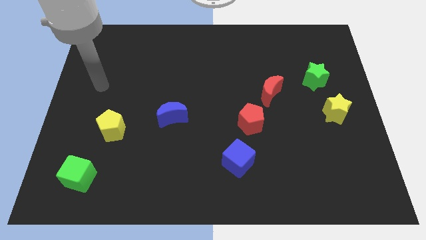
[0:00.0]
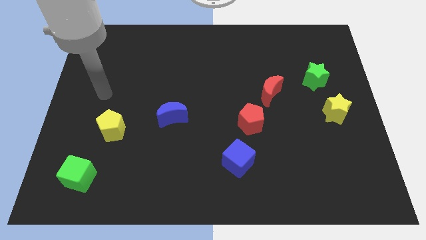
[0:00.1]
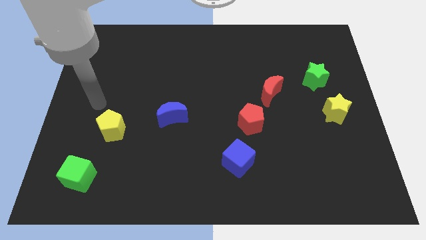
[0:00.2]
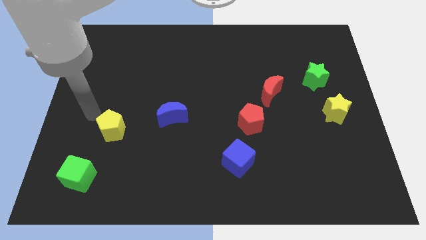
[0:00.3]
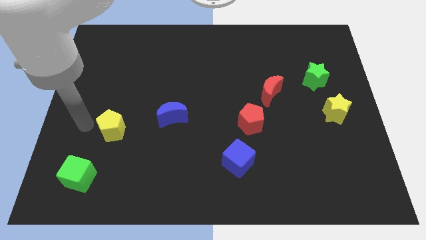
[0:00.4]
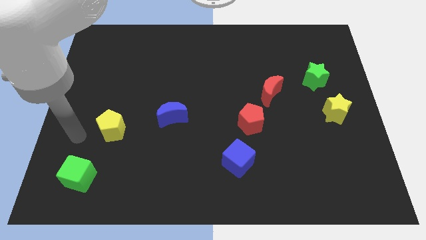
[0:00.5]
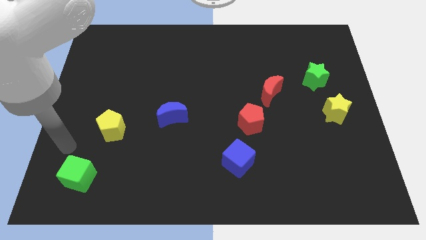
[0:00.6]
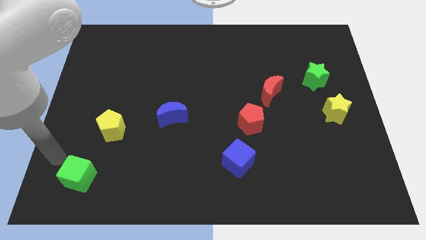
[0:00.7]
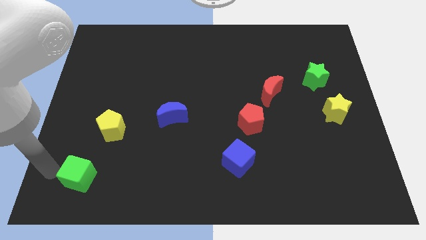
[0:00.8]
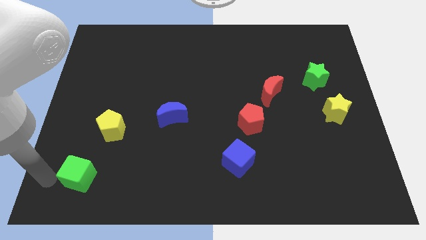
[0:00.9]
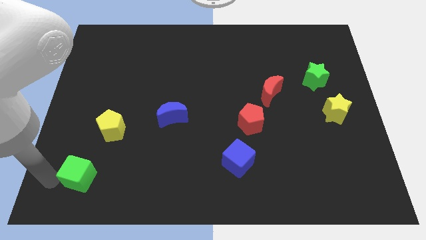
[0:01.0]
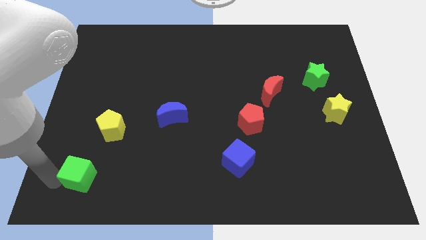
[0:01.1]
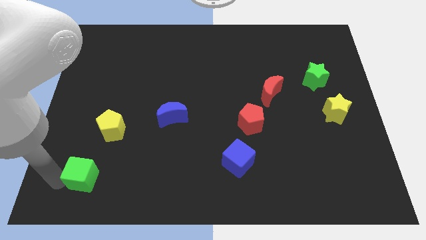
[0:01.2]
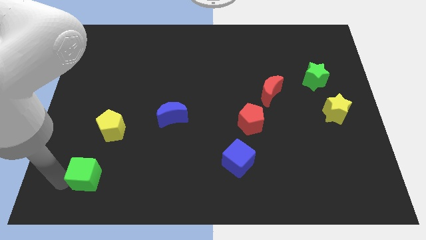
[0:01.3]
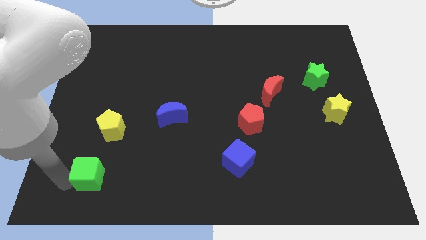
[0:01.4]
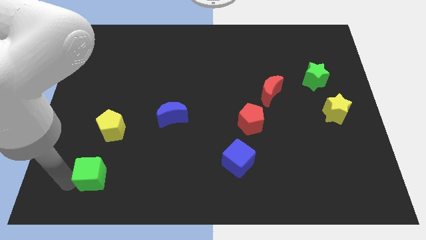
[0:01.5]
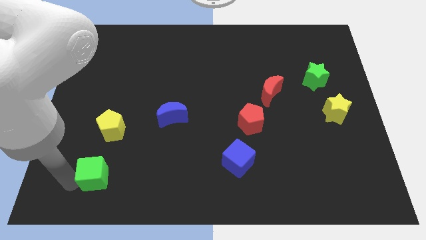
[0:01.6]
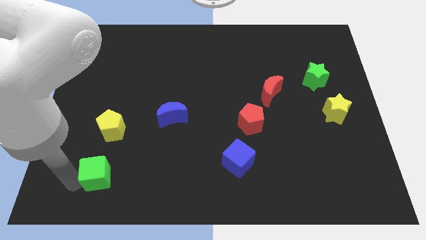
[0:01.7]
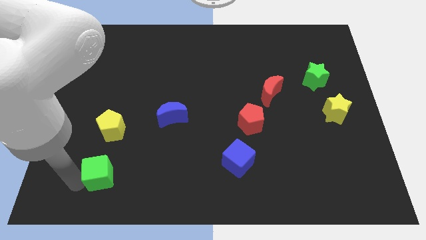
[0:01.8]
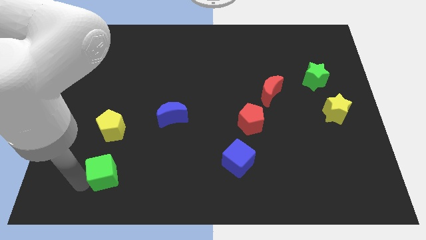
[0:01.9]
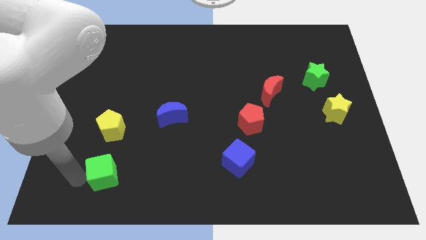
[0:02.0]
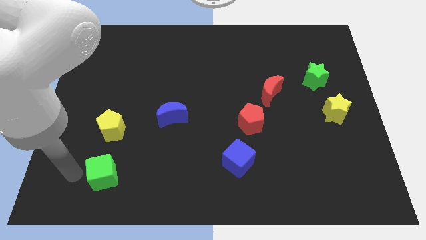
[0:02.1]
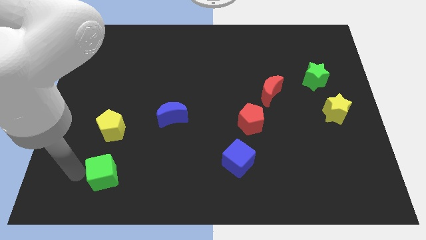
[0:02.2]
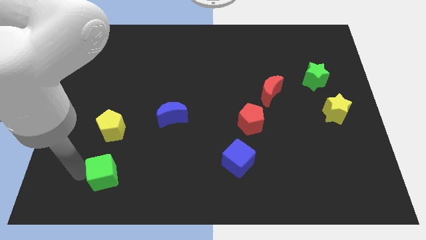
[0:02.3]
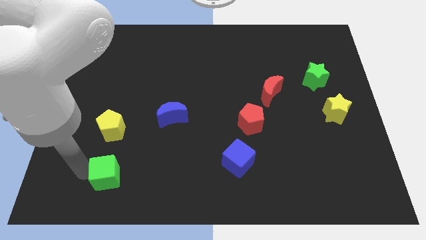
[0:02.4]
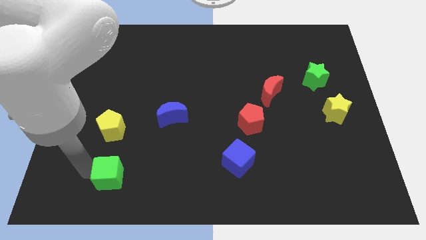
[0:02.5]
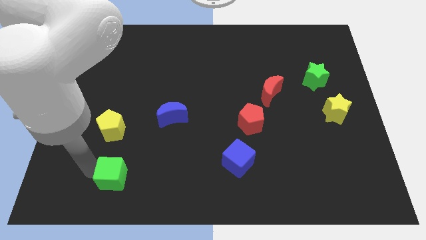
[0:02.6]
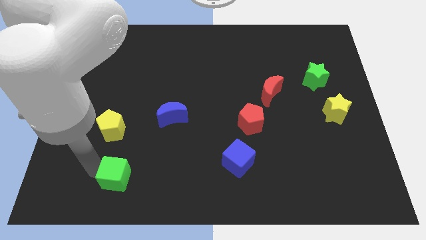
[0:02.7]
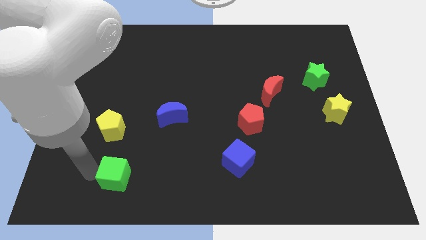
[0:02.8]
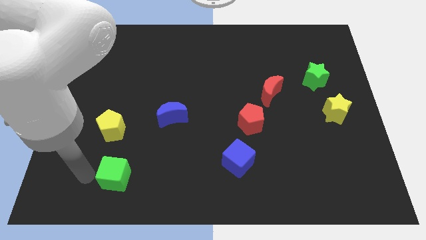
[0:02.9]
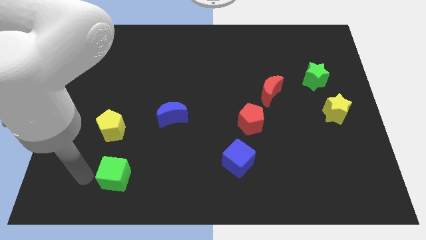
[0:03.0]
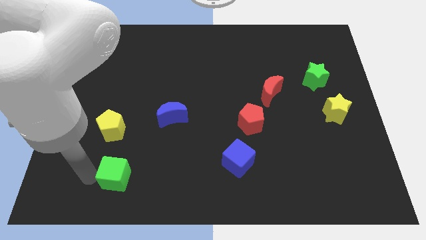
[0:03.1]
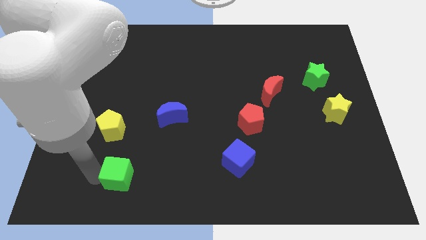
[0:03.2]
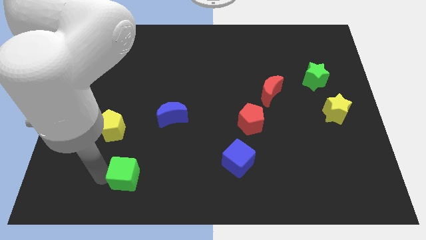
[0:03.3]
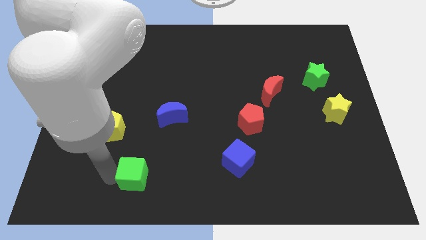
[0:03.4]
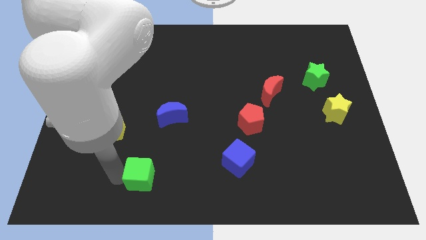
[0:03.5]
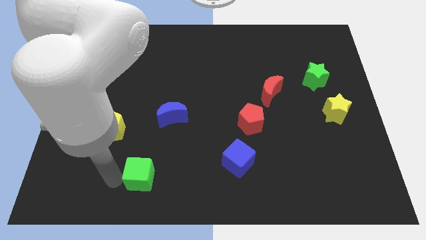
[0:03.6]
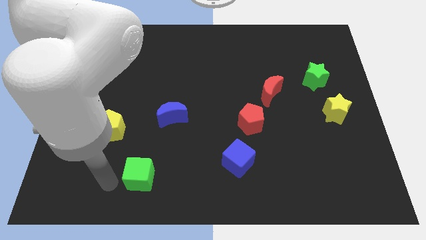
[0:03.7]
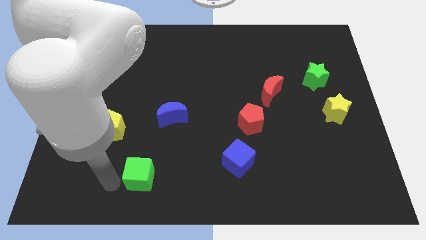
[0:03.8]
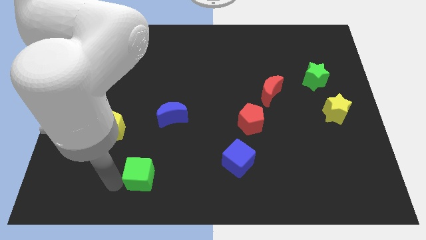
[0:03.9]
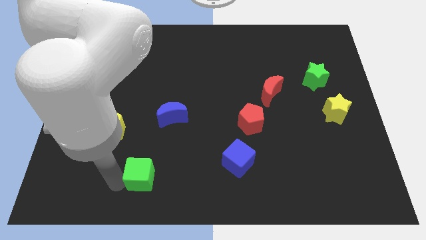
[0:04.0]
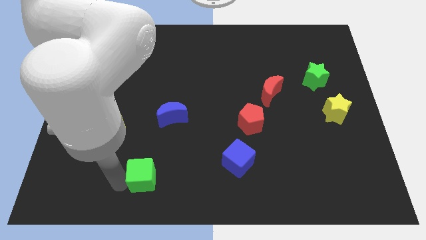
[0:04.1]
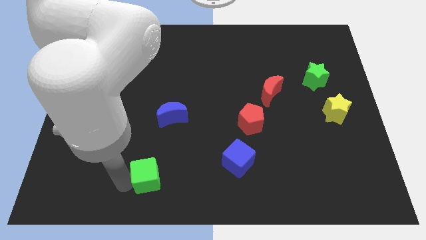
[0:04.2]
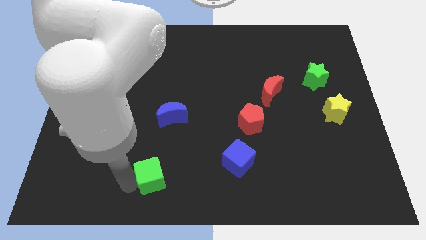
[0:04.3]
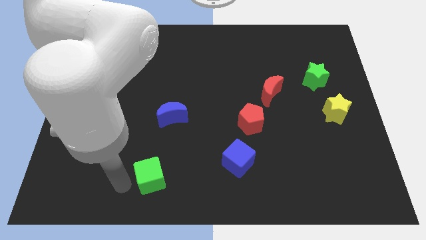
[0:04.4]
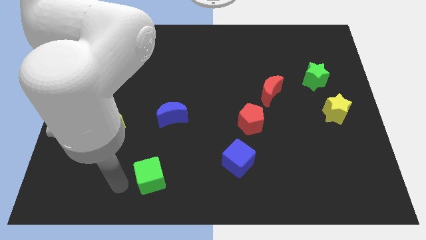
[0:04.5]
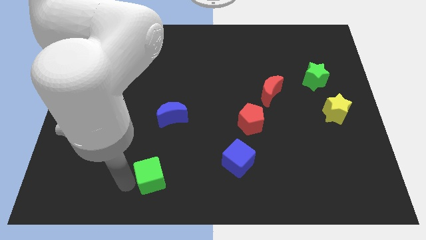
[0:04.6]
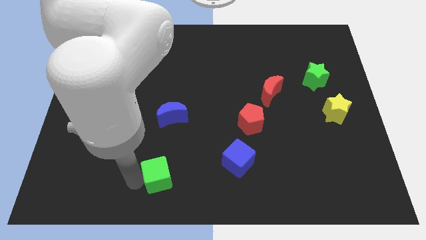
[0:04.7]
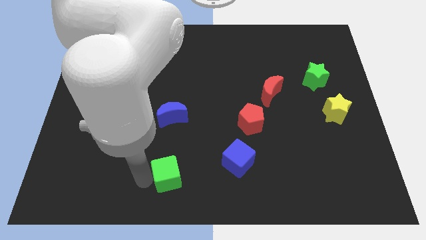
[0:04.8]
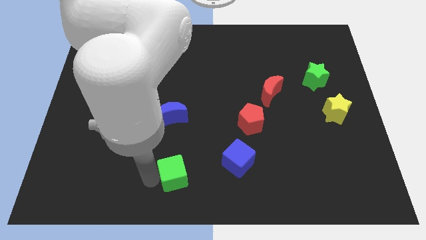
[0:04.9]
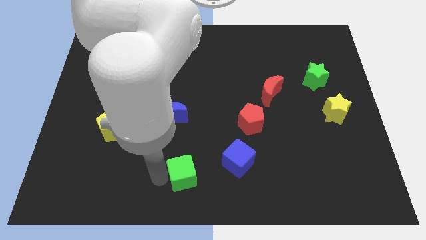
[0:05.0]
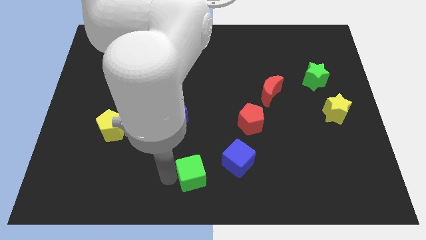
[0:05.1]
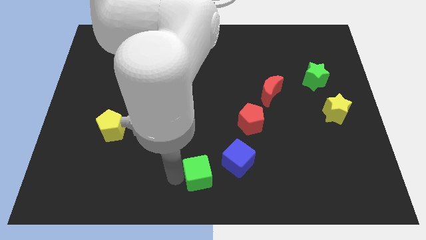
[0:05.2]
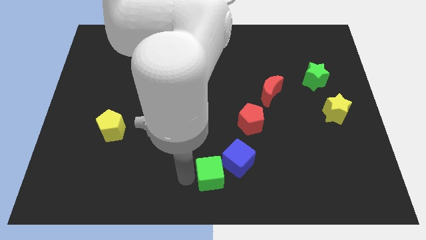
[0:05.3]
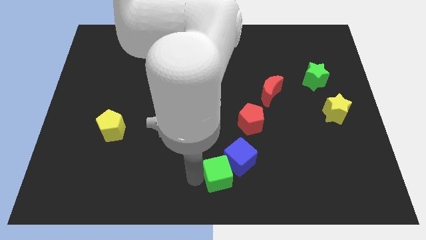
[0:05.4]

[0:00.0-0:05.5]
put the green cube close to the blue cube

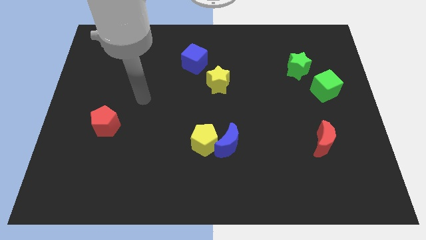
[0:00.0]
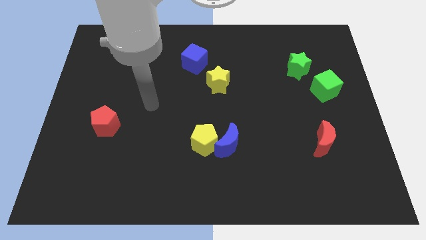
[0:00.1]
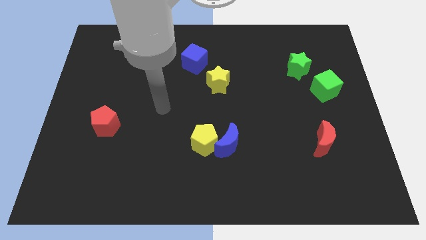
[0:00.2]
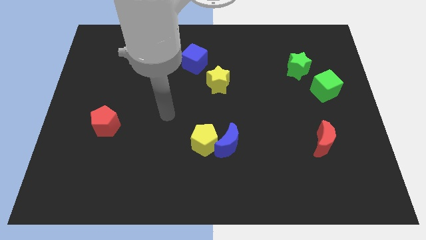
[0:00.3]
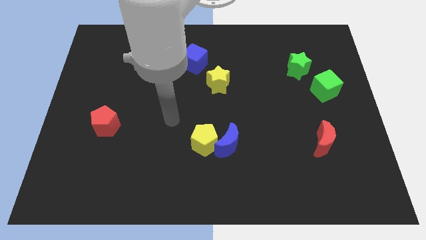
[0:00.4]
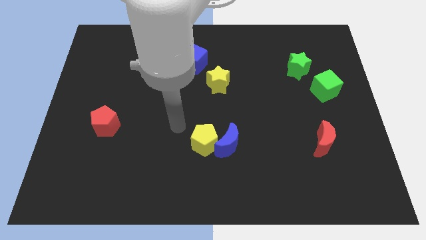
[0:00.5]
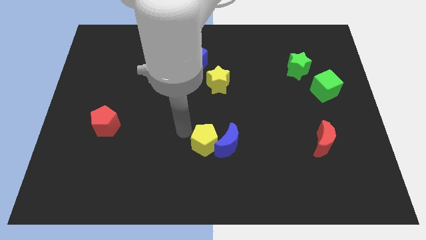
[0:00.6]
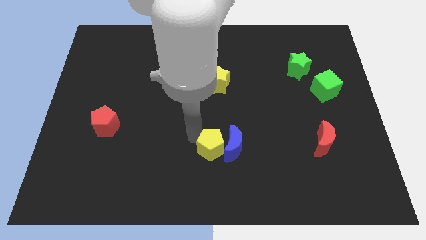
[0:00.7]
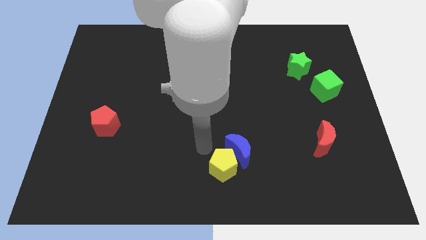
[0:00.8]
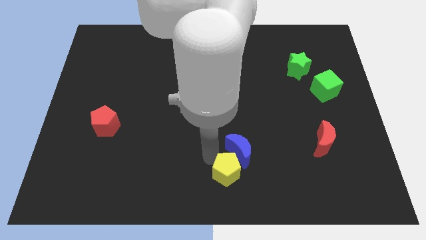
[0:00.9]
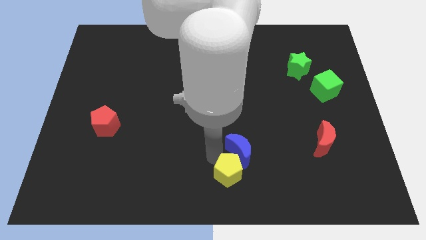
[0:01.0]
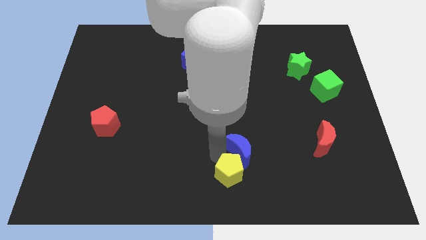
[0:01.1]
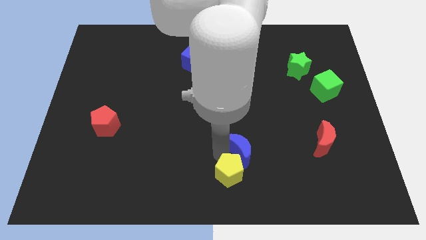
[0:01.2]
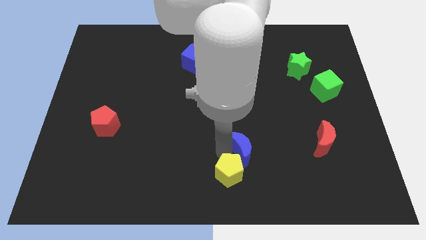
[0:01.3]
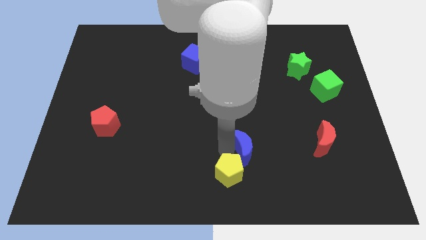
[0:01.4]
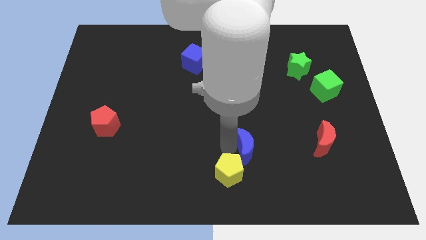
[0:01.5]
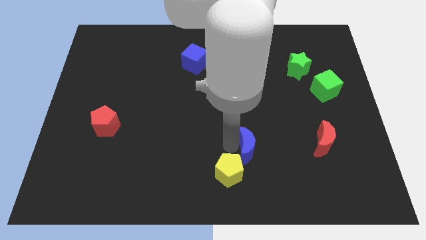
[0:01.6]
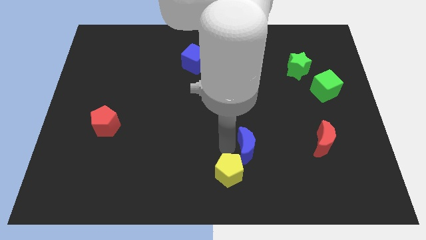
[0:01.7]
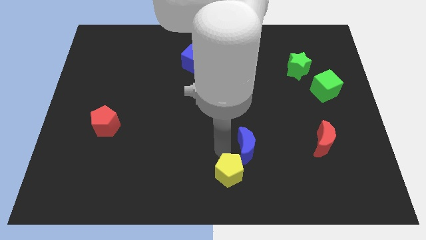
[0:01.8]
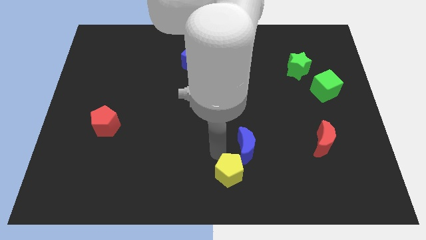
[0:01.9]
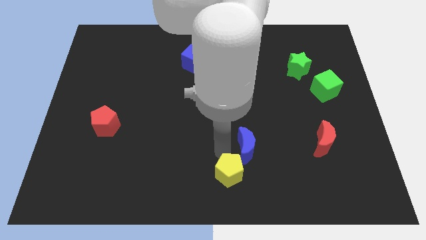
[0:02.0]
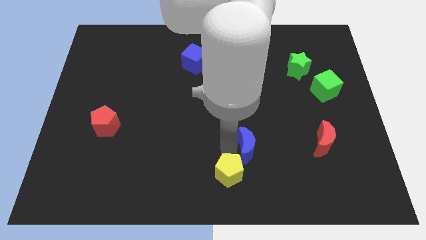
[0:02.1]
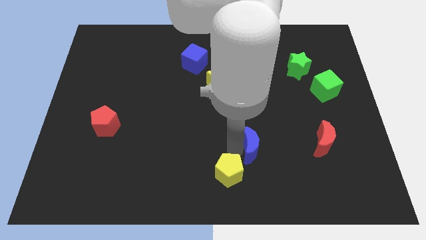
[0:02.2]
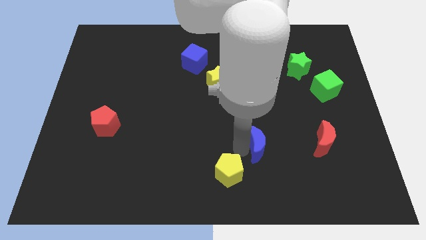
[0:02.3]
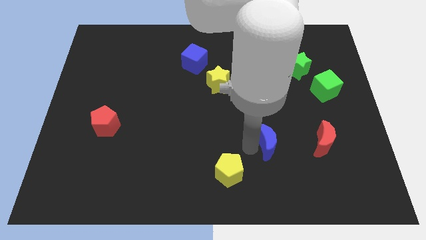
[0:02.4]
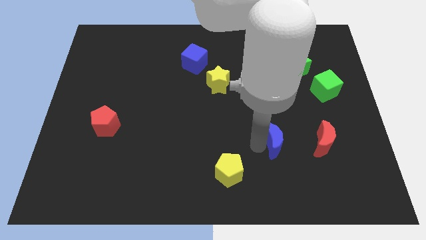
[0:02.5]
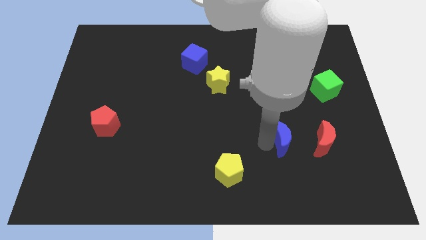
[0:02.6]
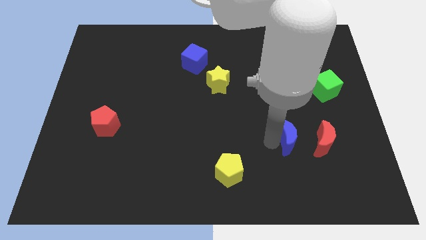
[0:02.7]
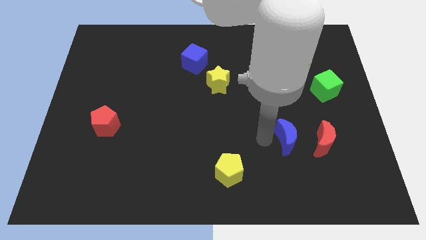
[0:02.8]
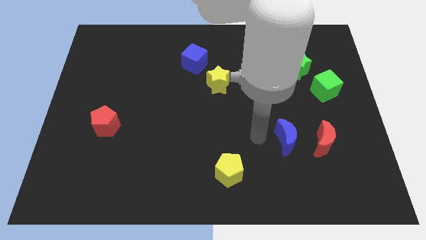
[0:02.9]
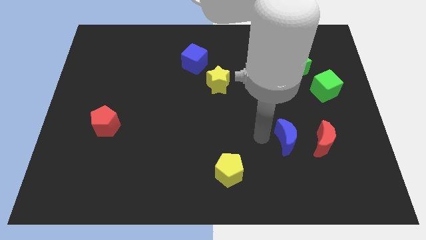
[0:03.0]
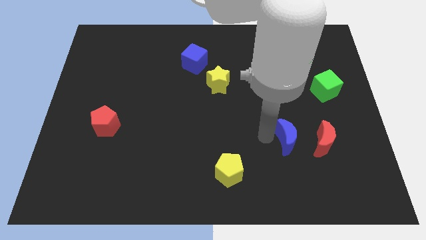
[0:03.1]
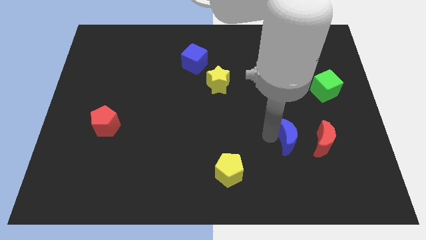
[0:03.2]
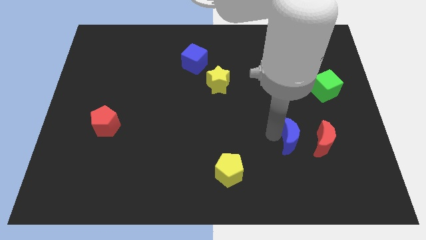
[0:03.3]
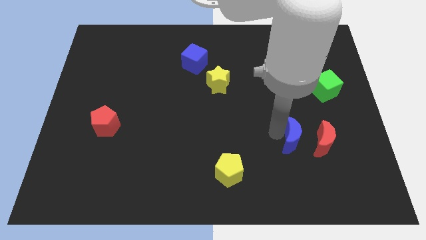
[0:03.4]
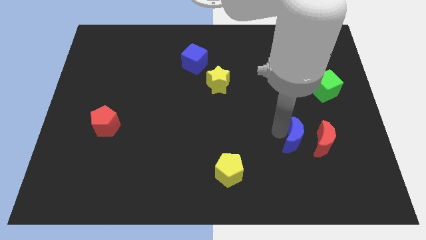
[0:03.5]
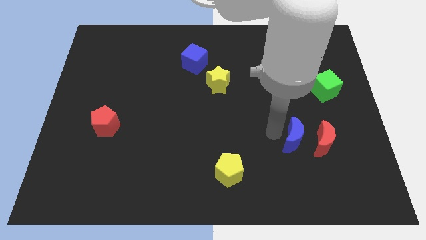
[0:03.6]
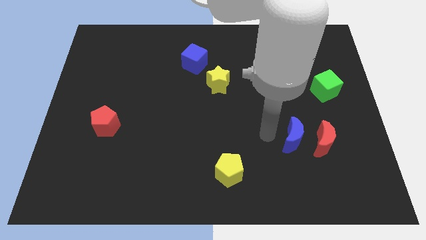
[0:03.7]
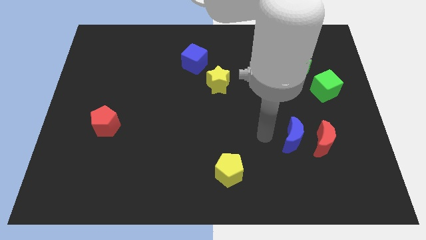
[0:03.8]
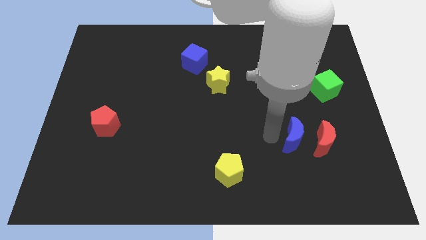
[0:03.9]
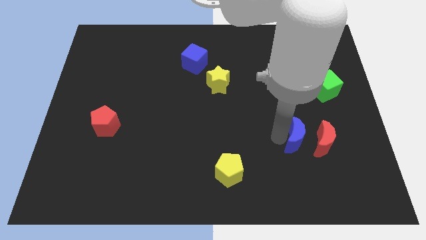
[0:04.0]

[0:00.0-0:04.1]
slide the blue moon next to the red moon
